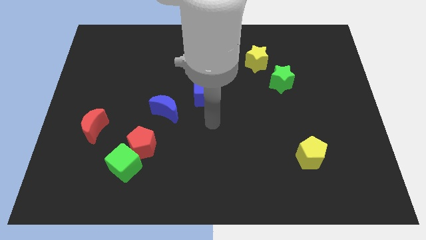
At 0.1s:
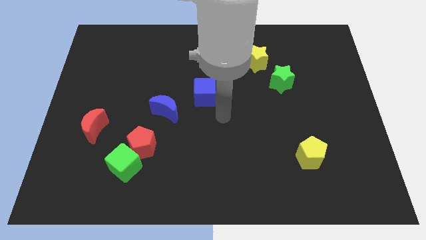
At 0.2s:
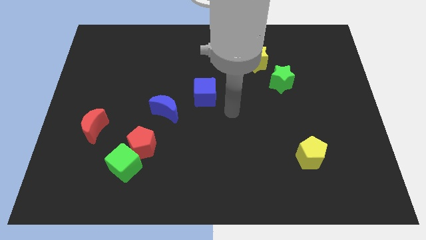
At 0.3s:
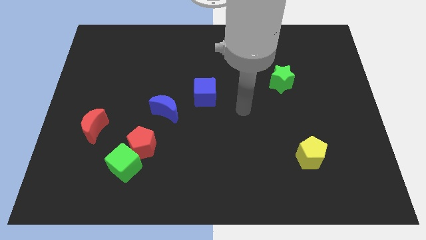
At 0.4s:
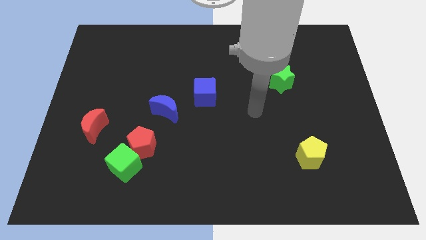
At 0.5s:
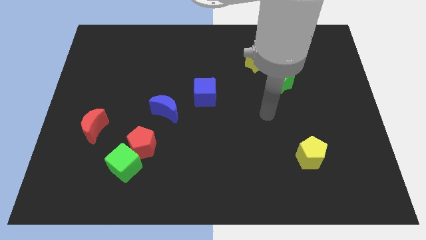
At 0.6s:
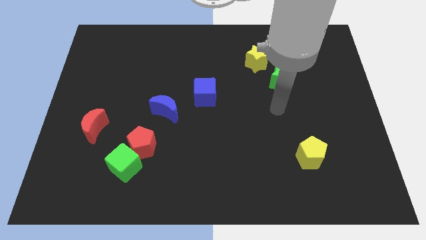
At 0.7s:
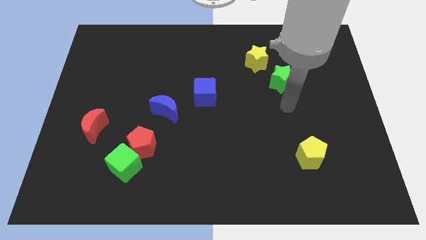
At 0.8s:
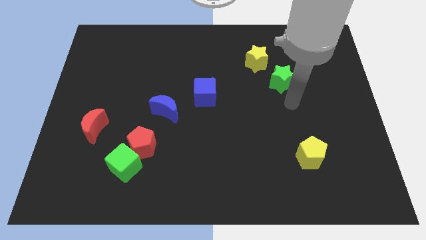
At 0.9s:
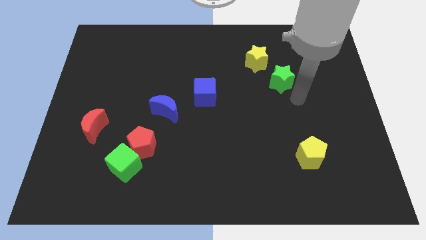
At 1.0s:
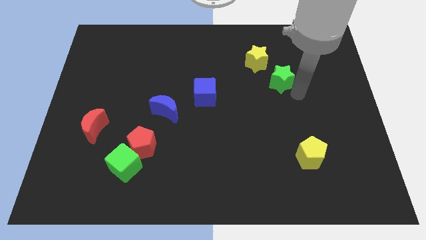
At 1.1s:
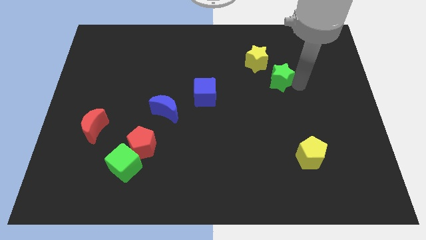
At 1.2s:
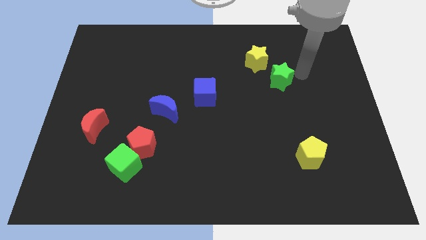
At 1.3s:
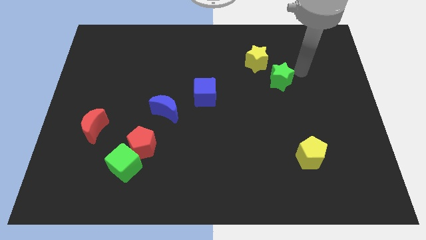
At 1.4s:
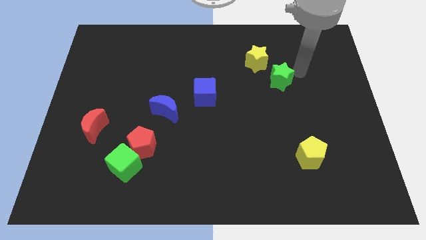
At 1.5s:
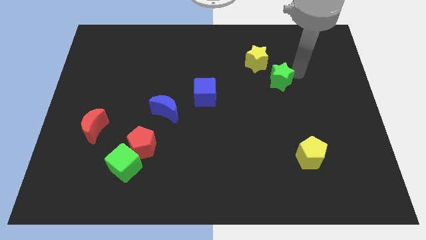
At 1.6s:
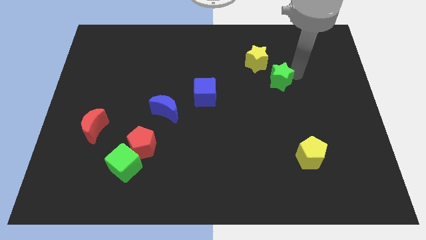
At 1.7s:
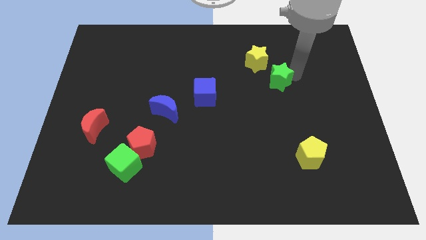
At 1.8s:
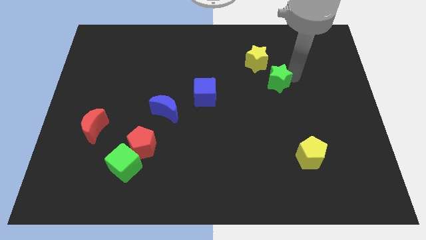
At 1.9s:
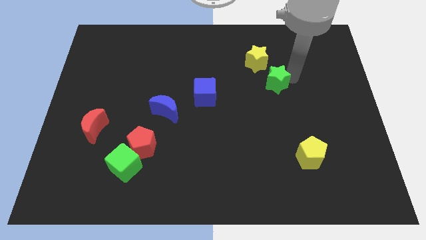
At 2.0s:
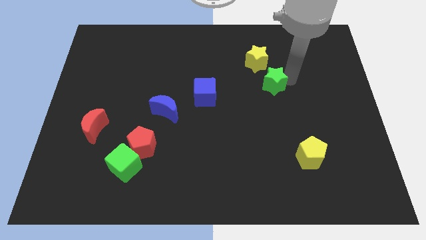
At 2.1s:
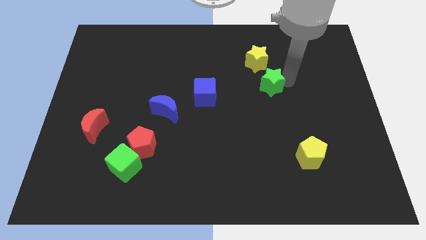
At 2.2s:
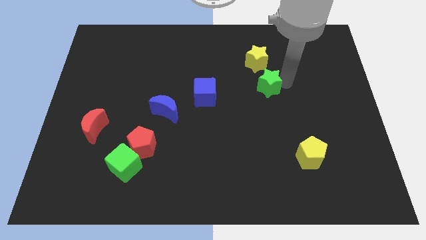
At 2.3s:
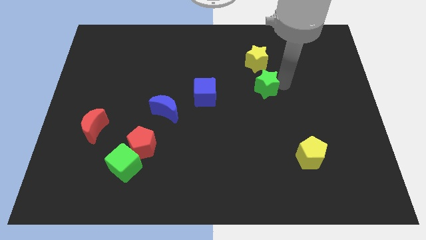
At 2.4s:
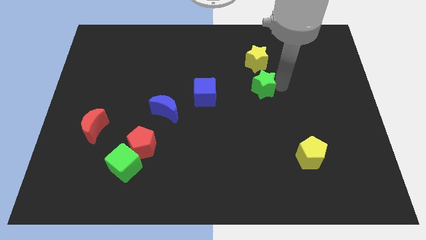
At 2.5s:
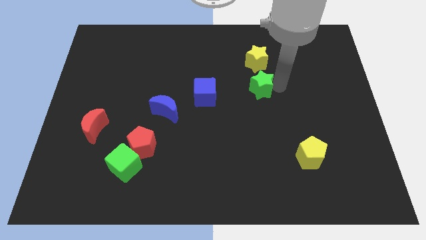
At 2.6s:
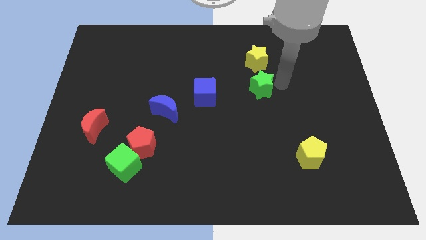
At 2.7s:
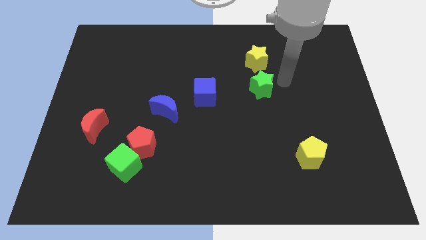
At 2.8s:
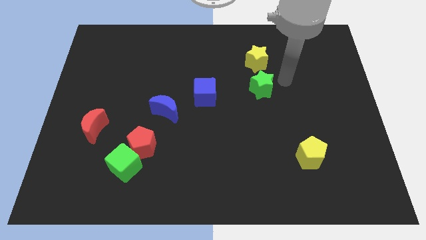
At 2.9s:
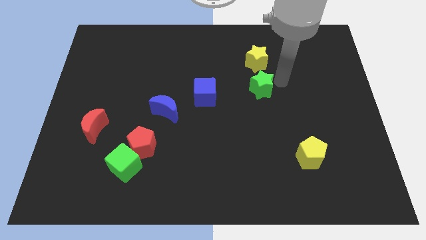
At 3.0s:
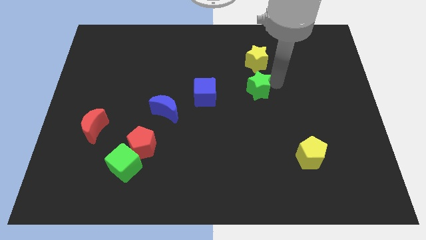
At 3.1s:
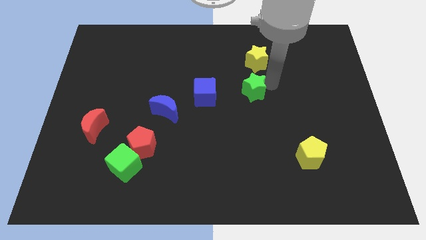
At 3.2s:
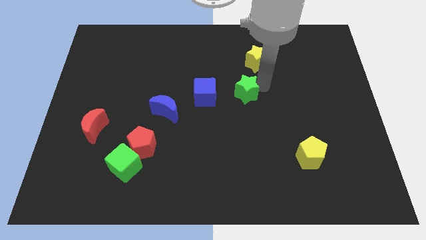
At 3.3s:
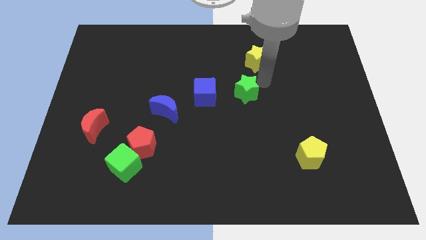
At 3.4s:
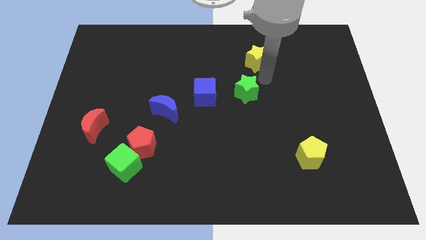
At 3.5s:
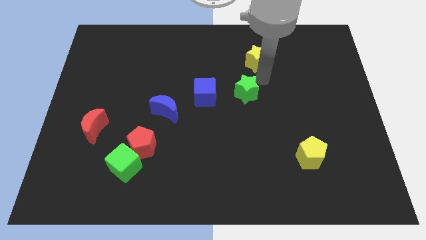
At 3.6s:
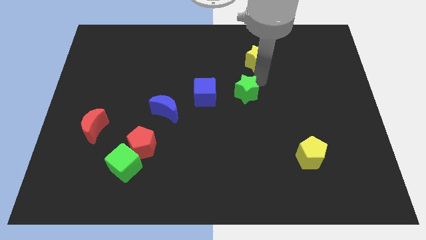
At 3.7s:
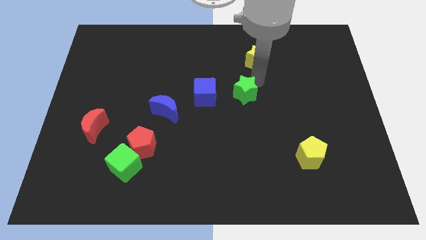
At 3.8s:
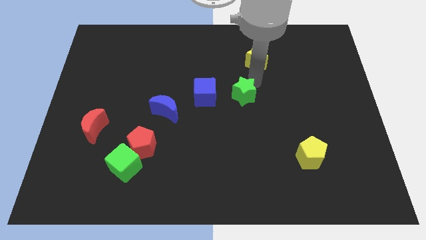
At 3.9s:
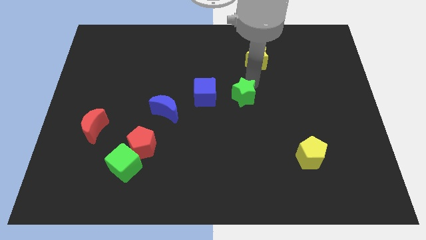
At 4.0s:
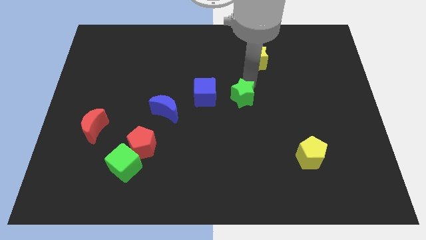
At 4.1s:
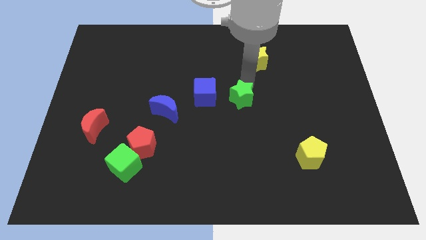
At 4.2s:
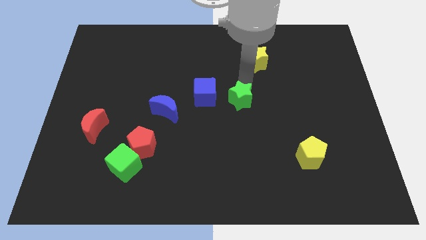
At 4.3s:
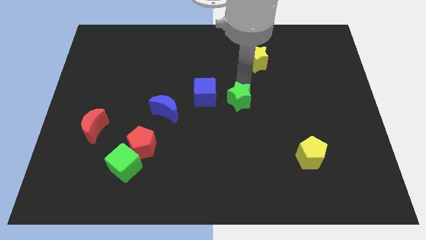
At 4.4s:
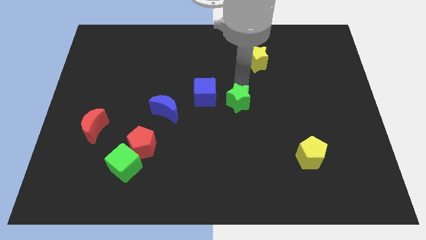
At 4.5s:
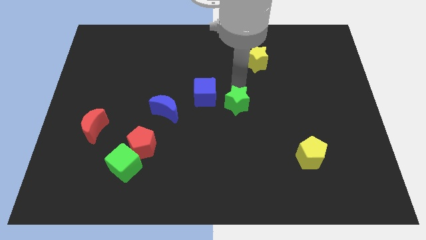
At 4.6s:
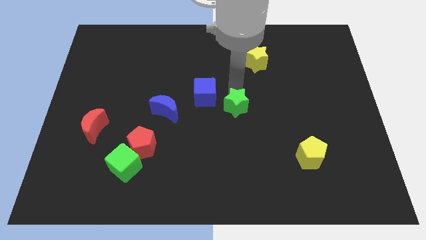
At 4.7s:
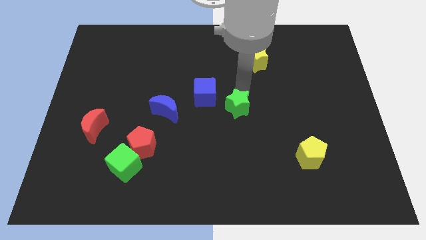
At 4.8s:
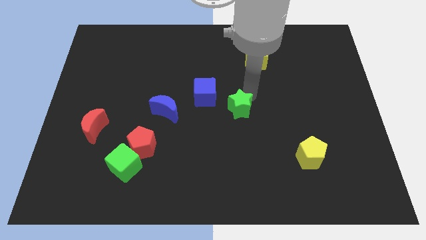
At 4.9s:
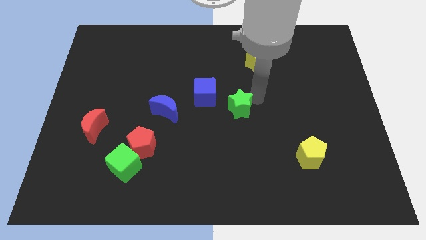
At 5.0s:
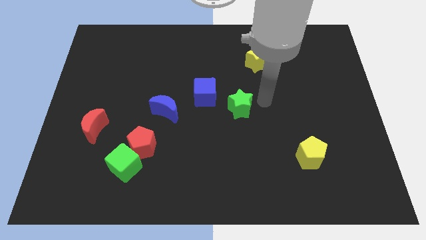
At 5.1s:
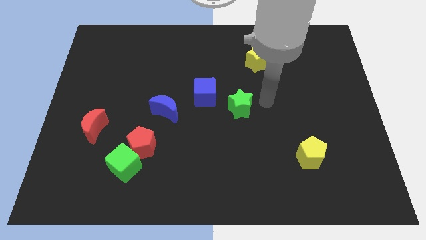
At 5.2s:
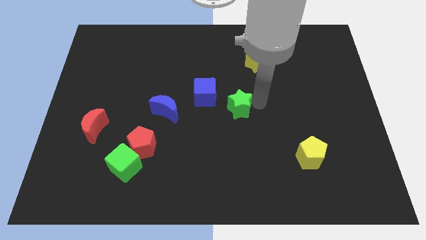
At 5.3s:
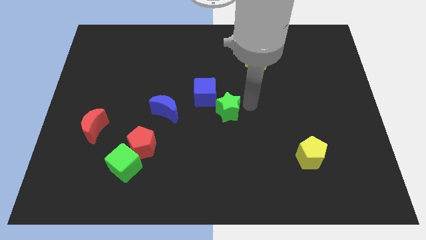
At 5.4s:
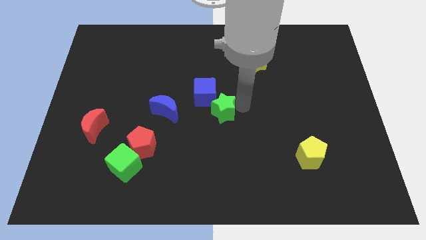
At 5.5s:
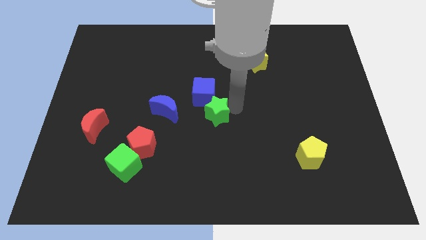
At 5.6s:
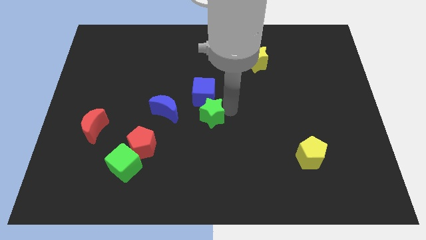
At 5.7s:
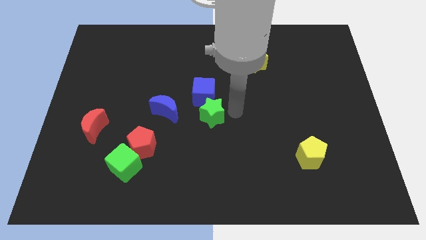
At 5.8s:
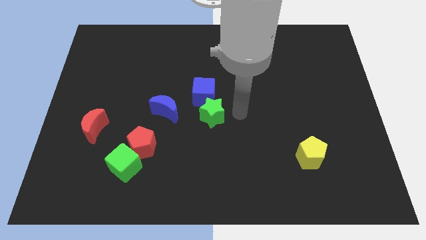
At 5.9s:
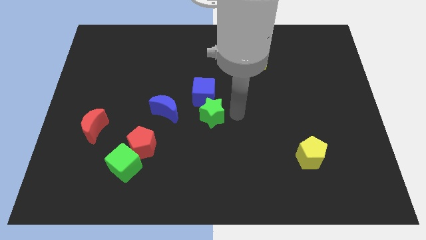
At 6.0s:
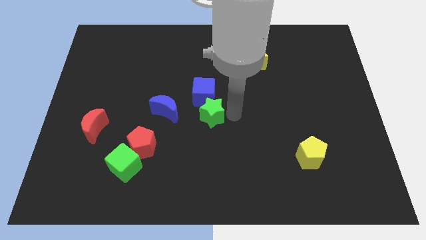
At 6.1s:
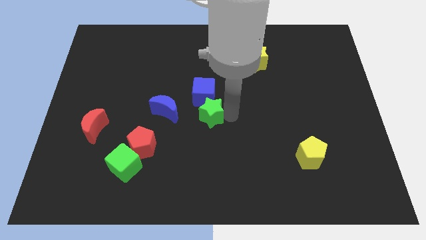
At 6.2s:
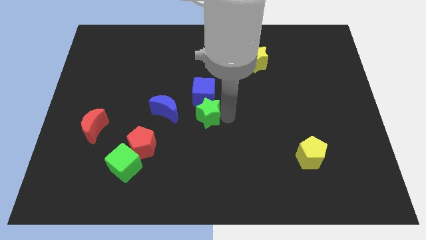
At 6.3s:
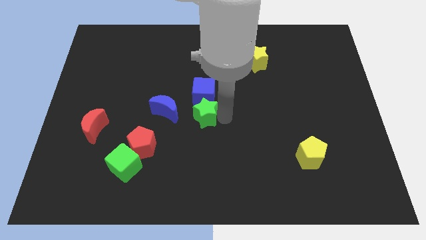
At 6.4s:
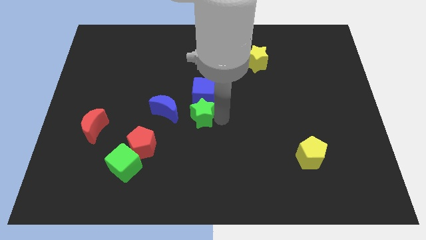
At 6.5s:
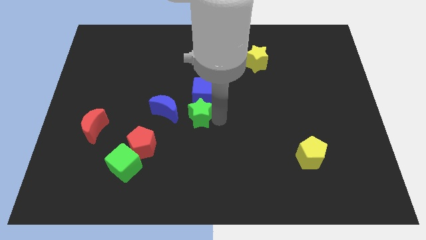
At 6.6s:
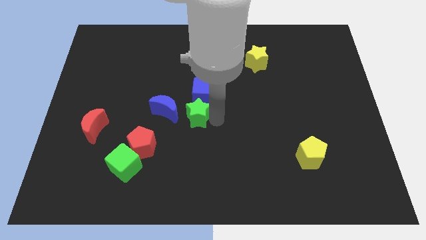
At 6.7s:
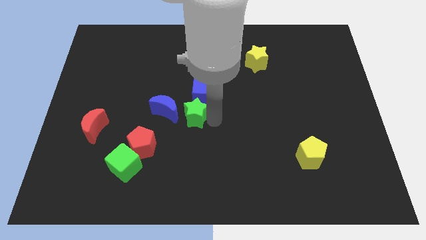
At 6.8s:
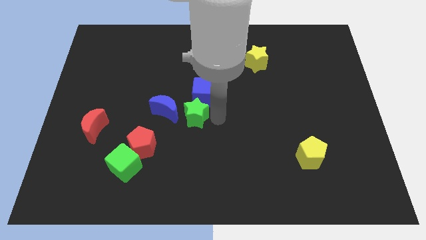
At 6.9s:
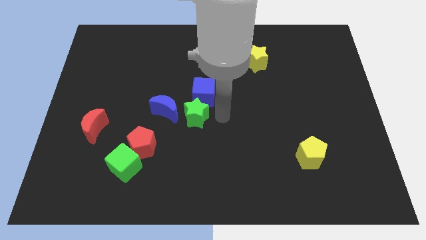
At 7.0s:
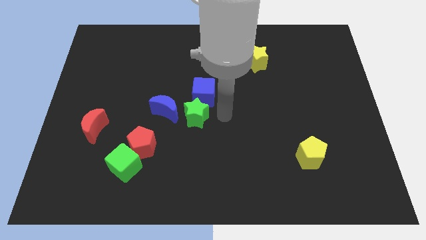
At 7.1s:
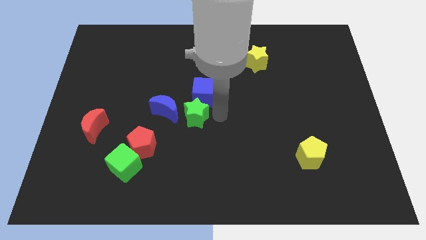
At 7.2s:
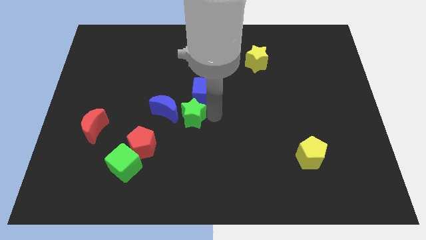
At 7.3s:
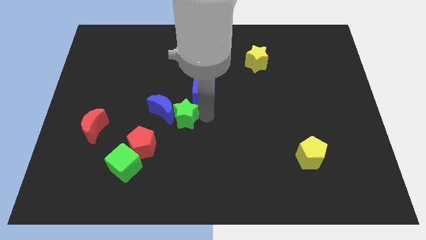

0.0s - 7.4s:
put the green star close to the blue moon
